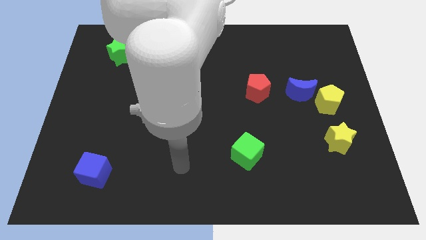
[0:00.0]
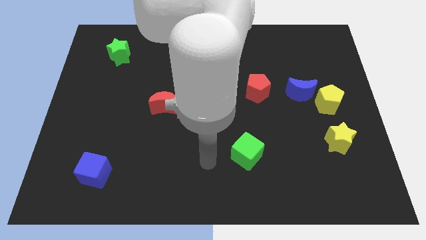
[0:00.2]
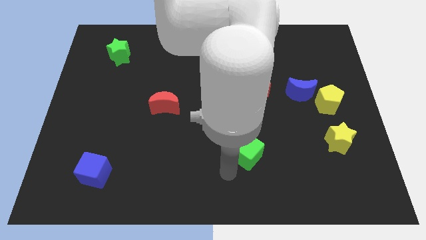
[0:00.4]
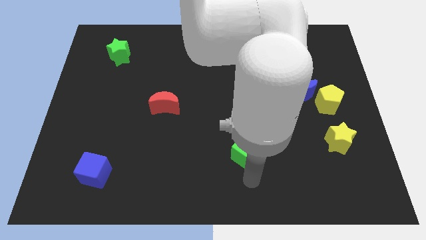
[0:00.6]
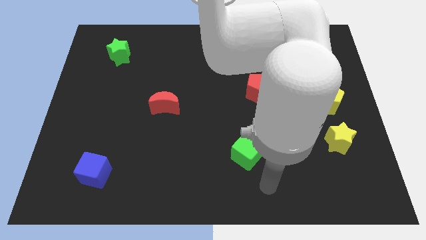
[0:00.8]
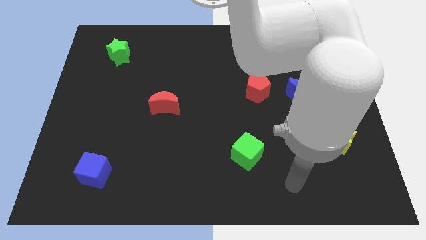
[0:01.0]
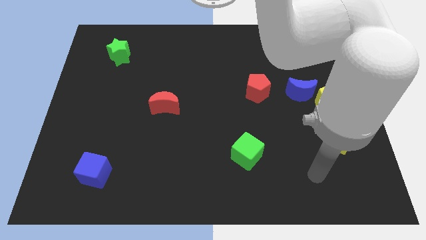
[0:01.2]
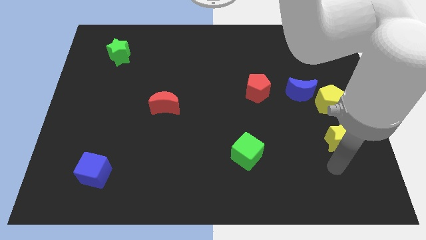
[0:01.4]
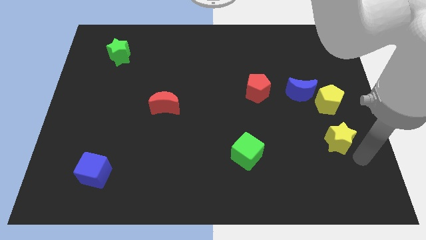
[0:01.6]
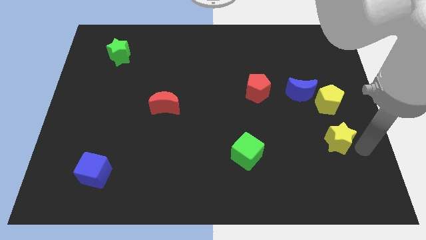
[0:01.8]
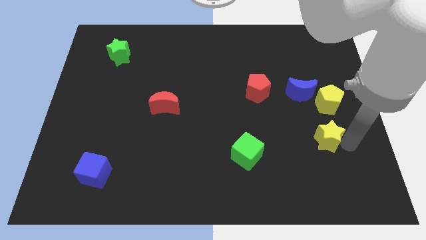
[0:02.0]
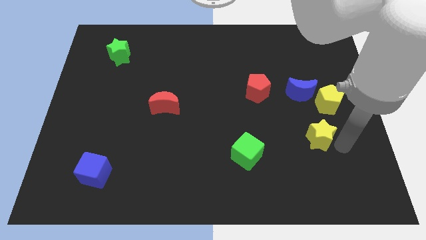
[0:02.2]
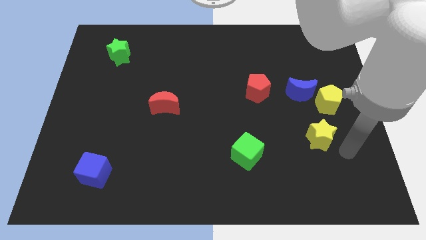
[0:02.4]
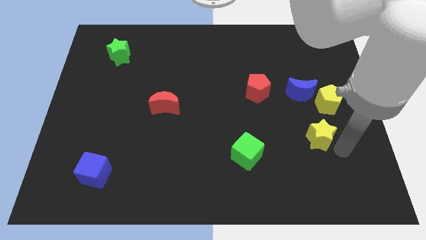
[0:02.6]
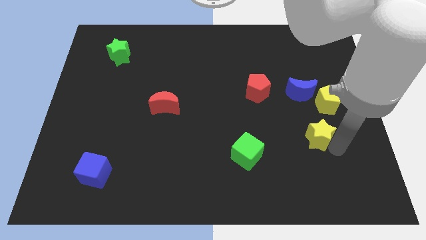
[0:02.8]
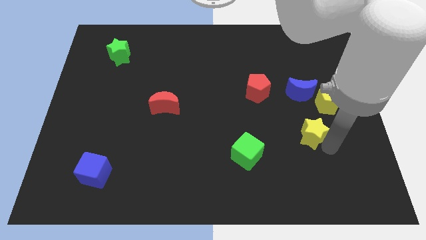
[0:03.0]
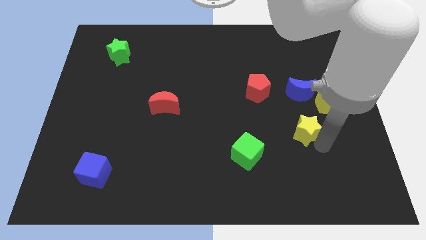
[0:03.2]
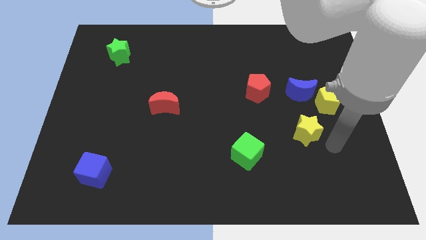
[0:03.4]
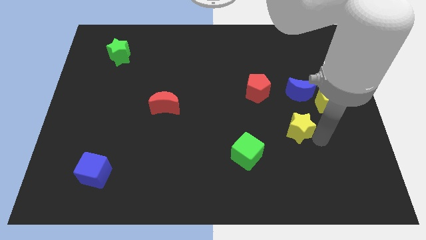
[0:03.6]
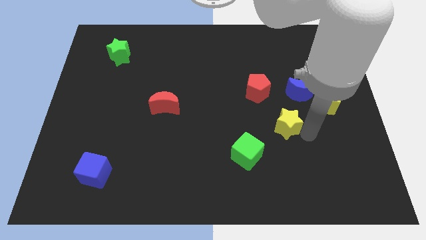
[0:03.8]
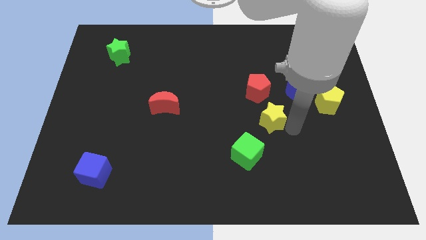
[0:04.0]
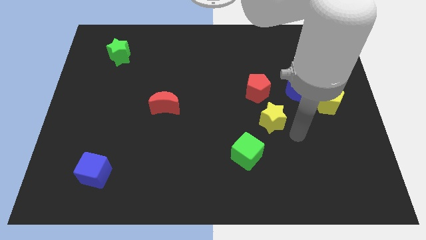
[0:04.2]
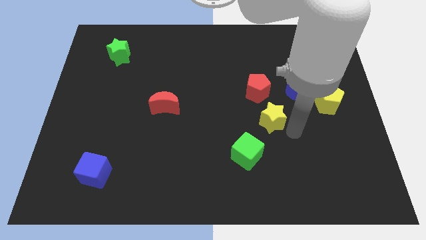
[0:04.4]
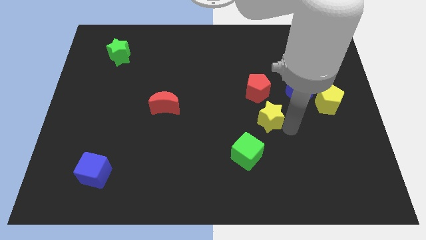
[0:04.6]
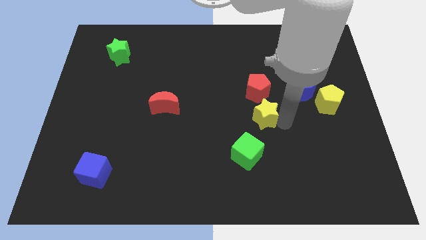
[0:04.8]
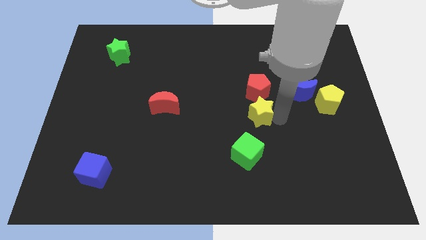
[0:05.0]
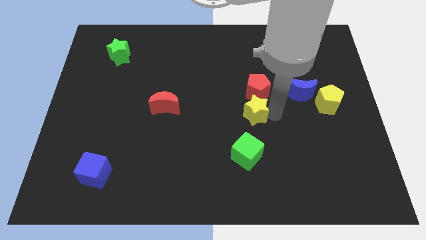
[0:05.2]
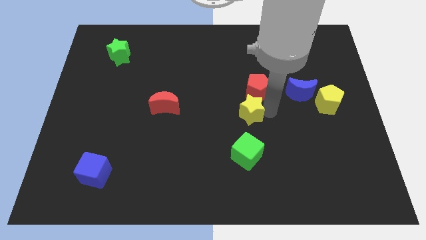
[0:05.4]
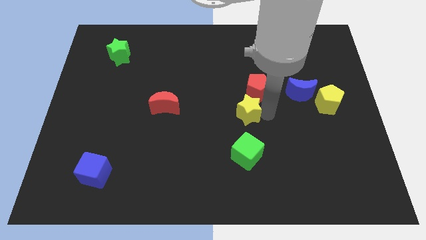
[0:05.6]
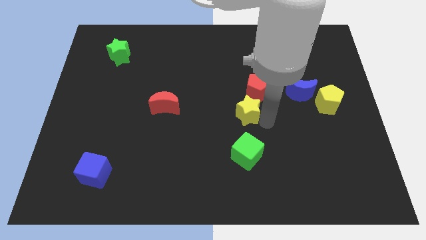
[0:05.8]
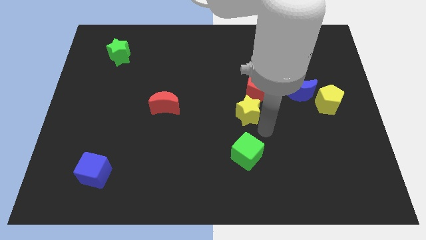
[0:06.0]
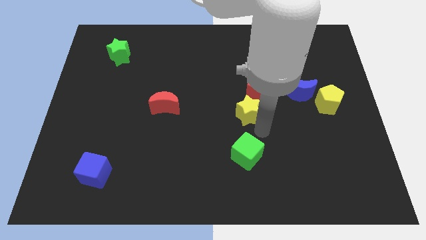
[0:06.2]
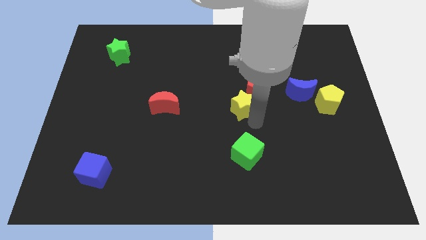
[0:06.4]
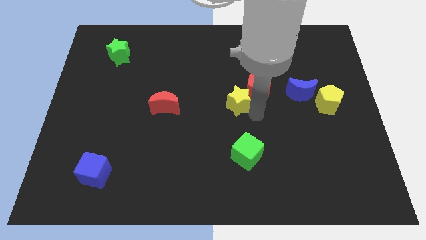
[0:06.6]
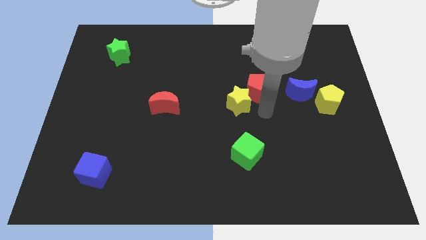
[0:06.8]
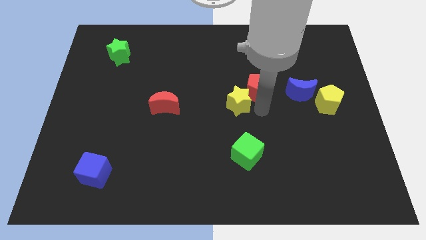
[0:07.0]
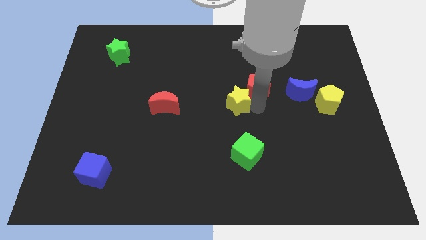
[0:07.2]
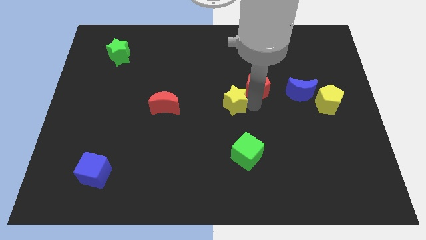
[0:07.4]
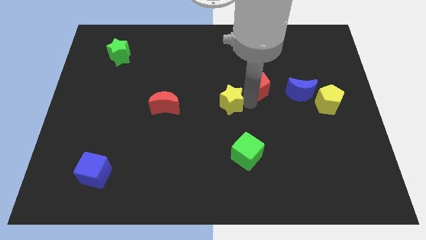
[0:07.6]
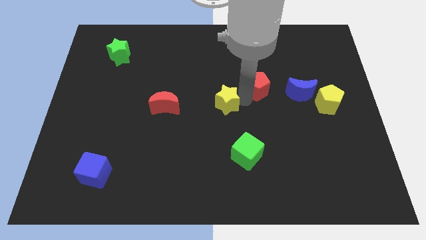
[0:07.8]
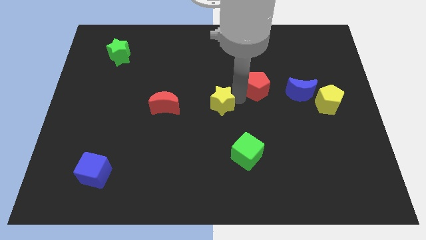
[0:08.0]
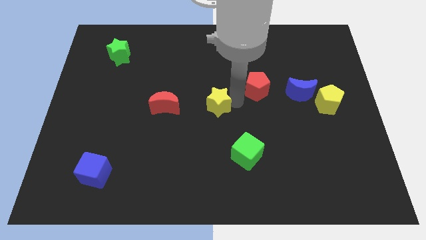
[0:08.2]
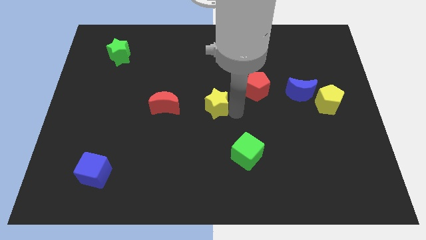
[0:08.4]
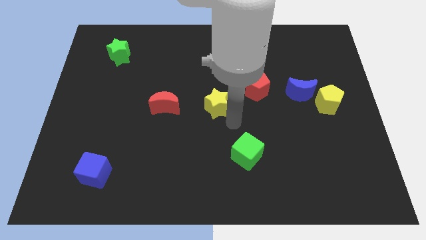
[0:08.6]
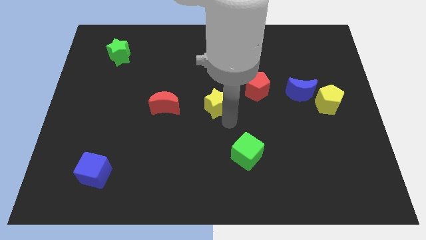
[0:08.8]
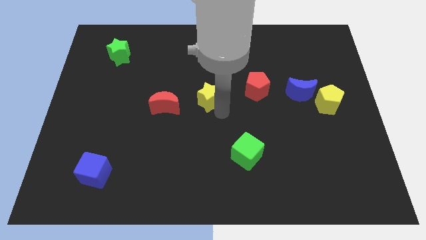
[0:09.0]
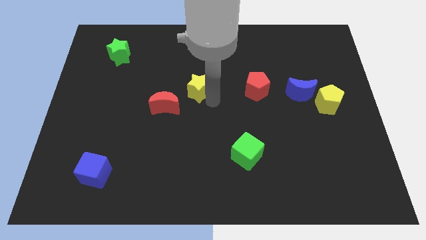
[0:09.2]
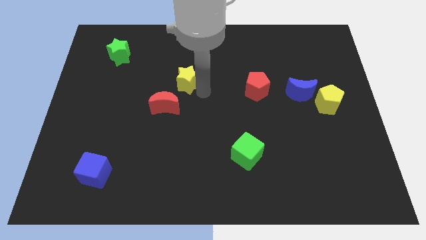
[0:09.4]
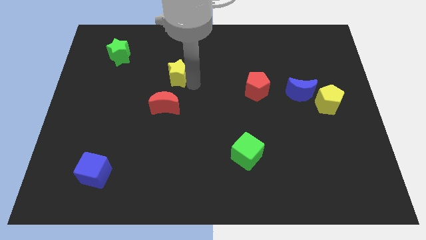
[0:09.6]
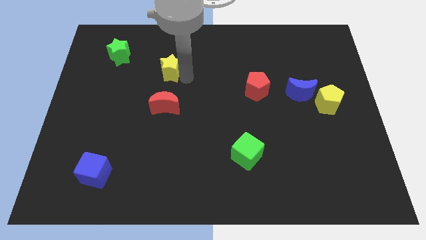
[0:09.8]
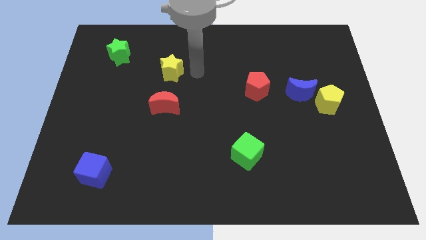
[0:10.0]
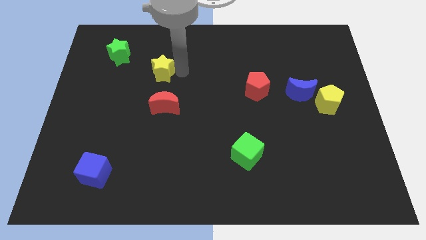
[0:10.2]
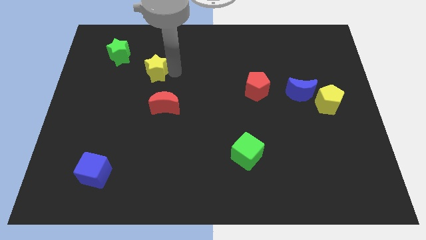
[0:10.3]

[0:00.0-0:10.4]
push the yellow star to the bottom right side of the green star

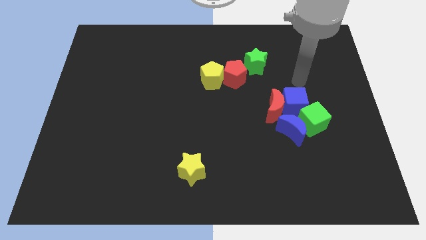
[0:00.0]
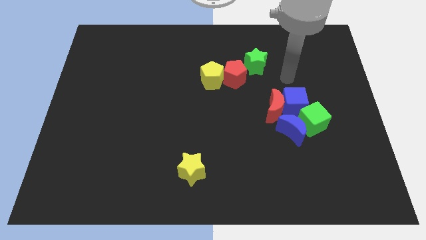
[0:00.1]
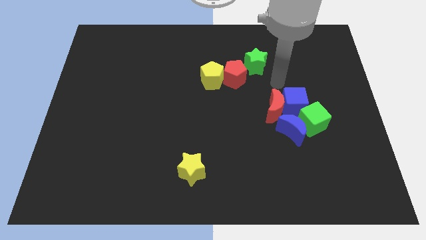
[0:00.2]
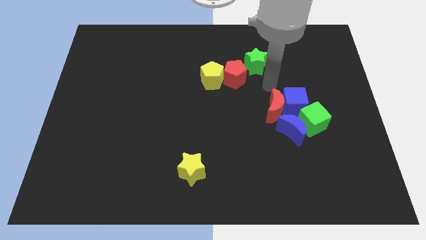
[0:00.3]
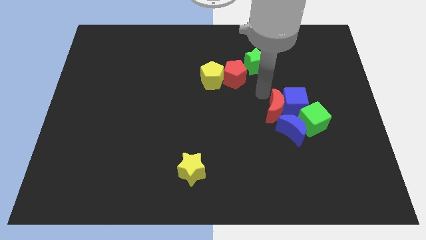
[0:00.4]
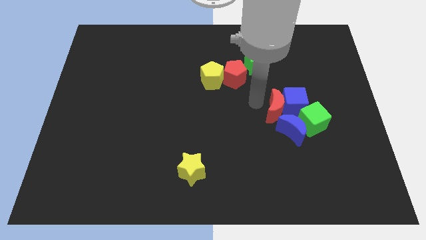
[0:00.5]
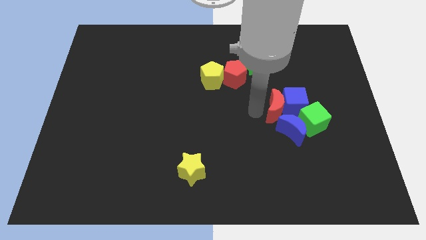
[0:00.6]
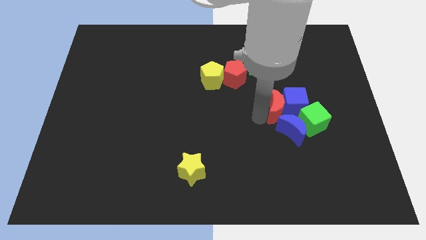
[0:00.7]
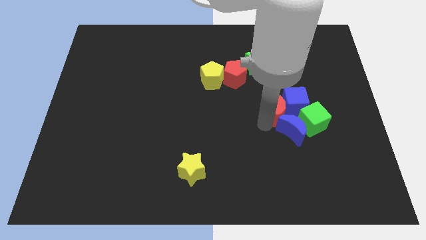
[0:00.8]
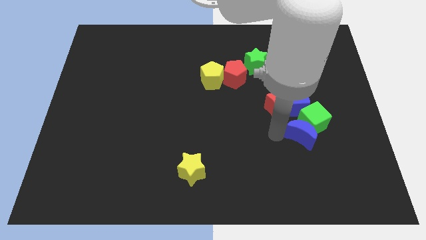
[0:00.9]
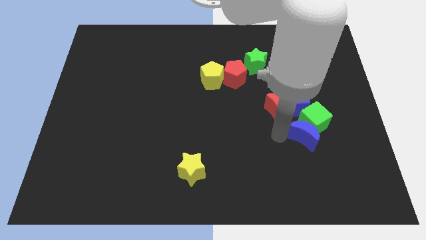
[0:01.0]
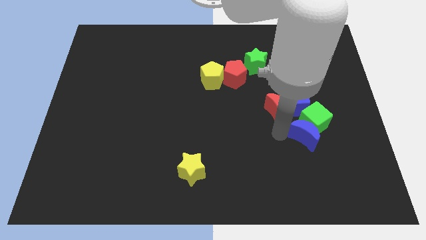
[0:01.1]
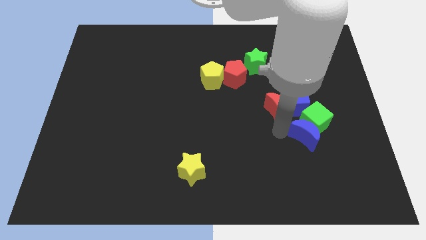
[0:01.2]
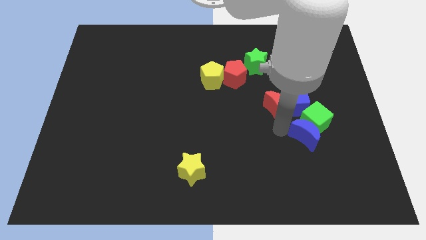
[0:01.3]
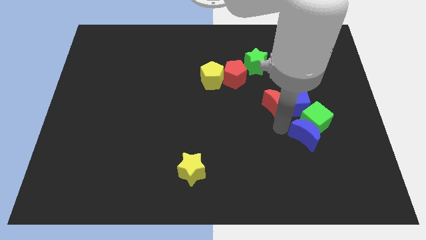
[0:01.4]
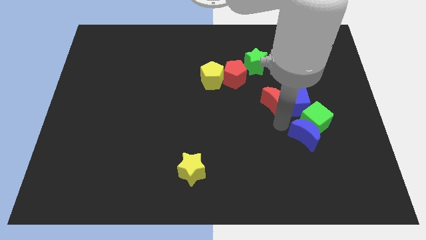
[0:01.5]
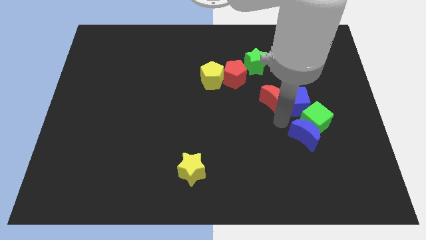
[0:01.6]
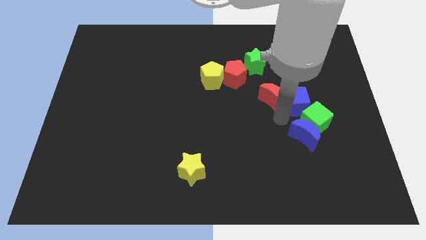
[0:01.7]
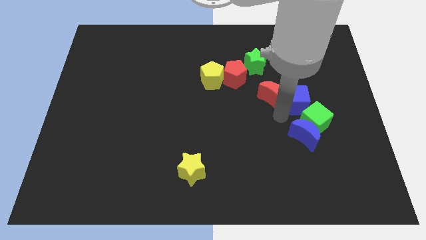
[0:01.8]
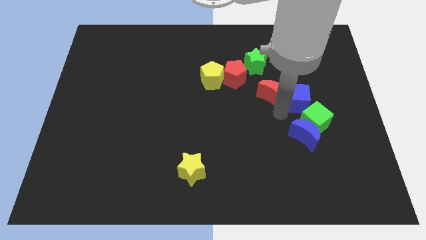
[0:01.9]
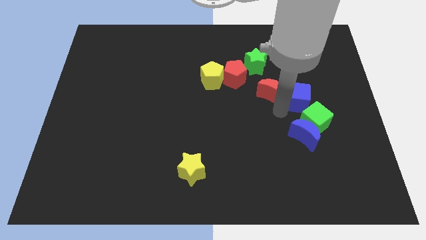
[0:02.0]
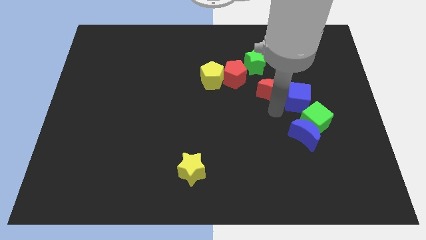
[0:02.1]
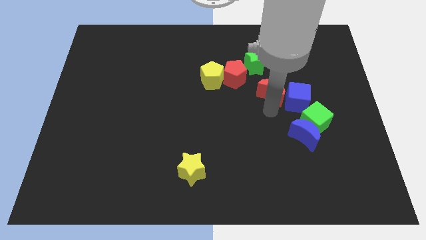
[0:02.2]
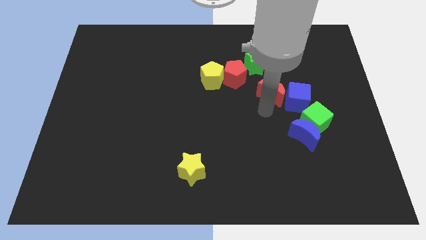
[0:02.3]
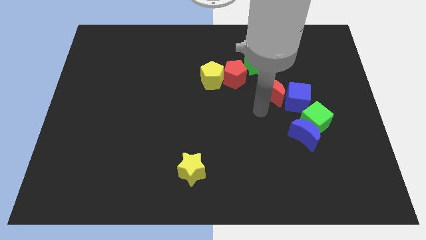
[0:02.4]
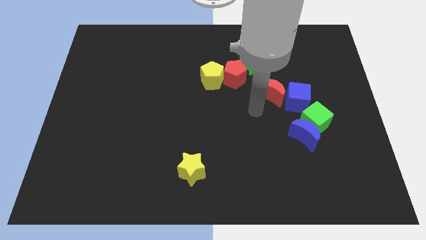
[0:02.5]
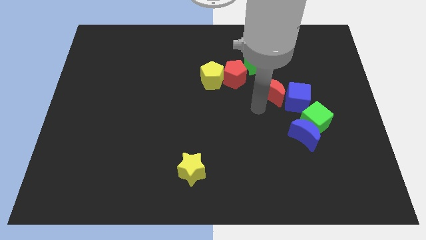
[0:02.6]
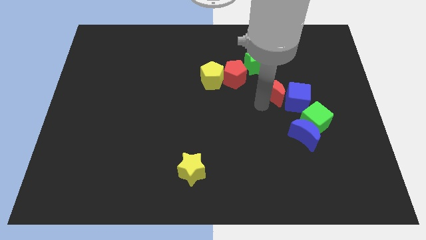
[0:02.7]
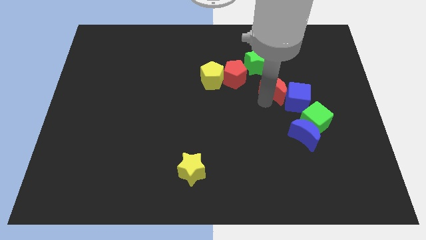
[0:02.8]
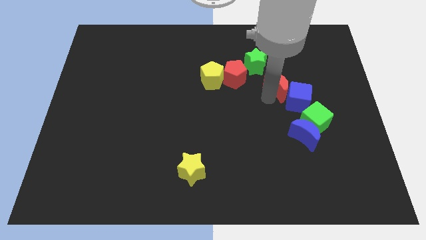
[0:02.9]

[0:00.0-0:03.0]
put the red moon above the blue cube
